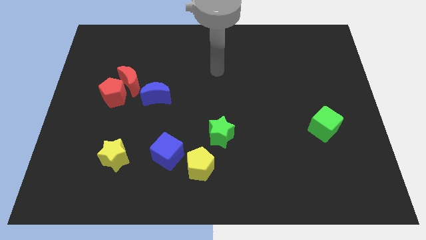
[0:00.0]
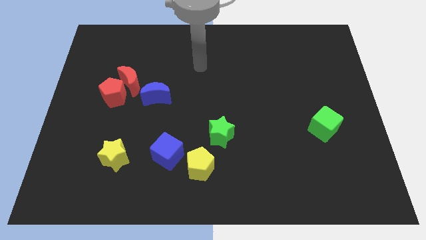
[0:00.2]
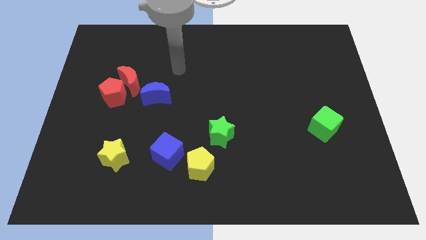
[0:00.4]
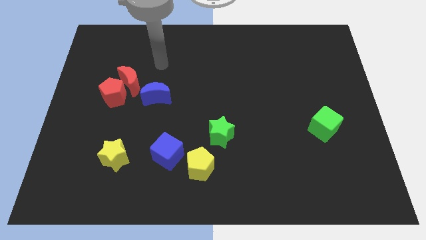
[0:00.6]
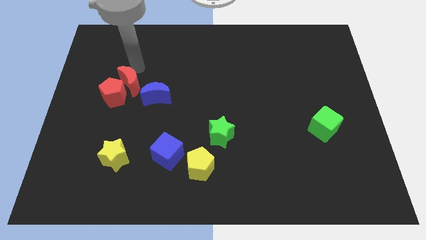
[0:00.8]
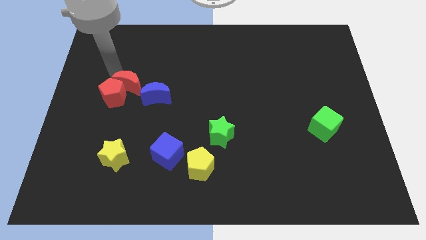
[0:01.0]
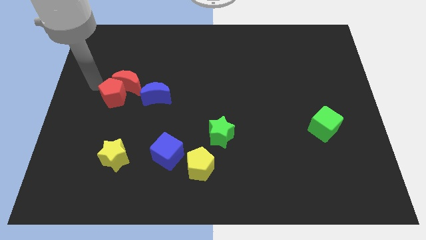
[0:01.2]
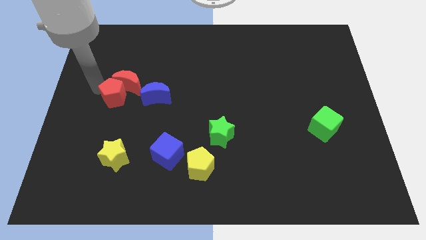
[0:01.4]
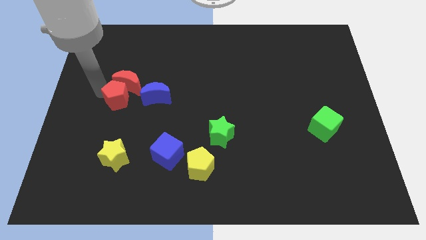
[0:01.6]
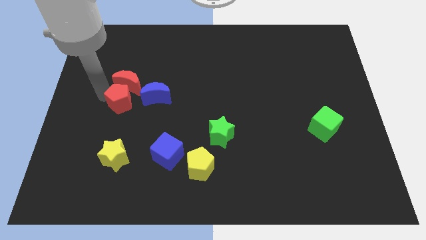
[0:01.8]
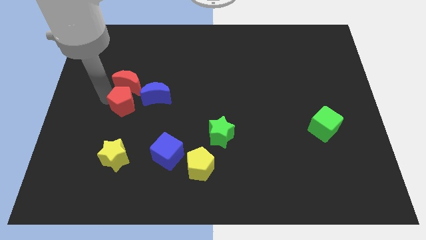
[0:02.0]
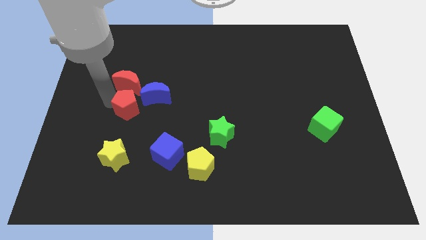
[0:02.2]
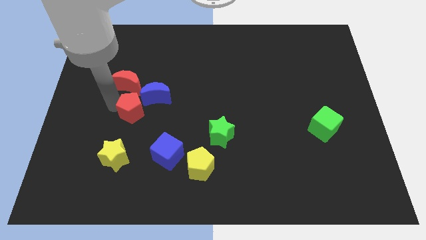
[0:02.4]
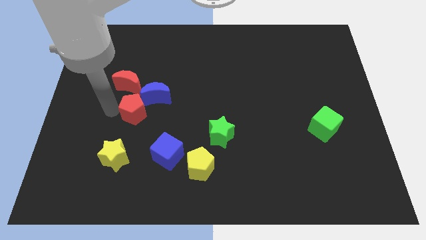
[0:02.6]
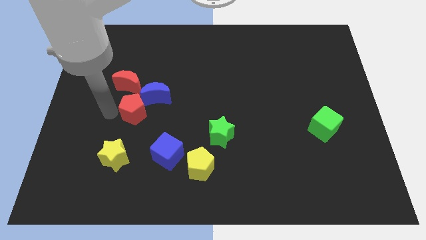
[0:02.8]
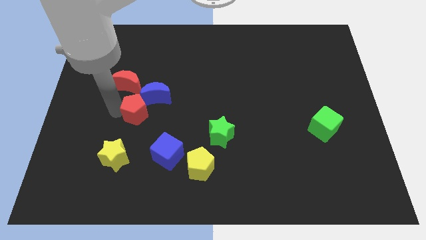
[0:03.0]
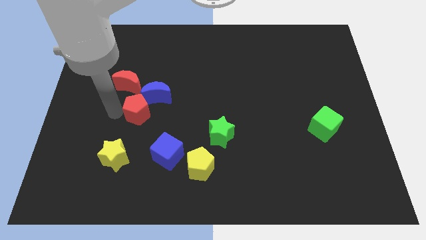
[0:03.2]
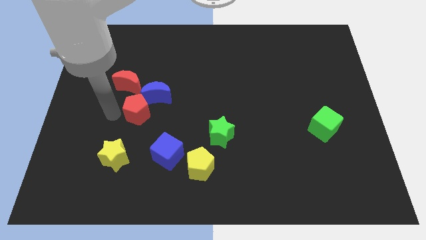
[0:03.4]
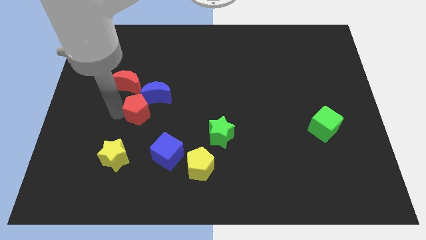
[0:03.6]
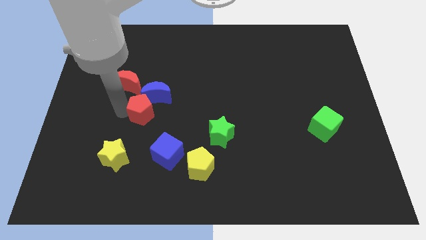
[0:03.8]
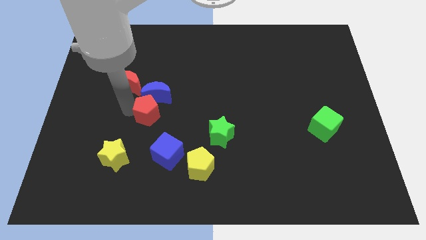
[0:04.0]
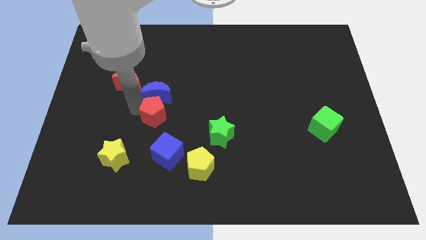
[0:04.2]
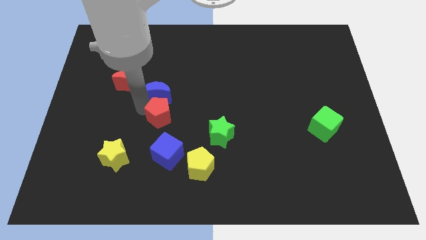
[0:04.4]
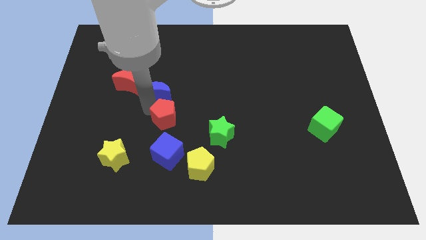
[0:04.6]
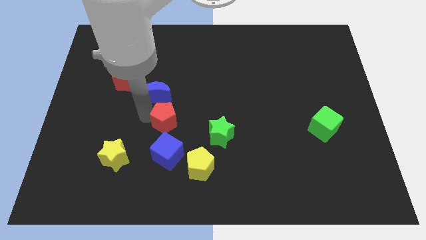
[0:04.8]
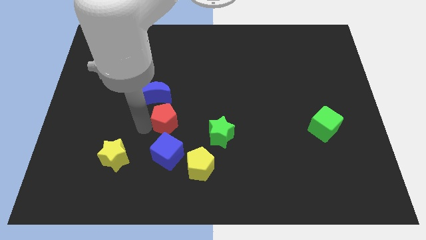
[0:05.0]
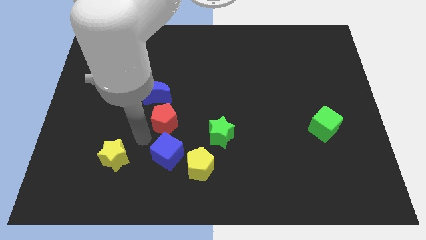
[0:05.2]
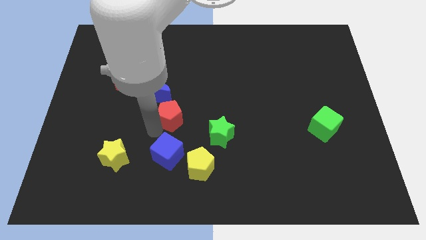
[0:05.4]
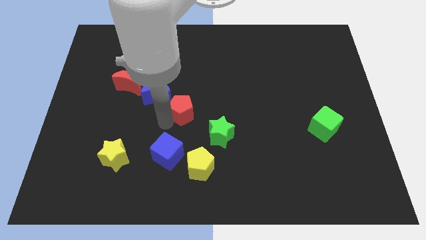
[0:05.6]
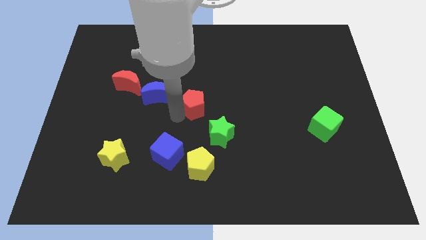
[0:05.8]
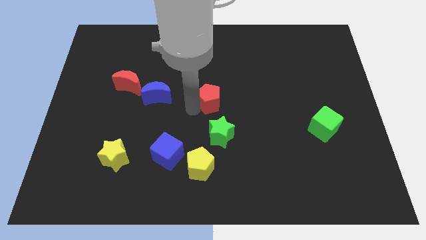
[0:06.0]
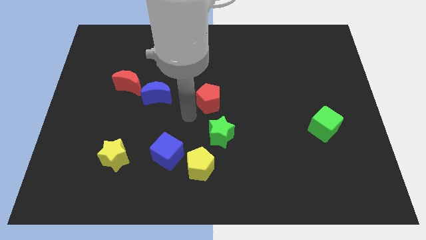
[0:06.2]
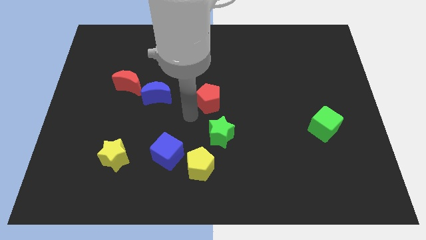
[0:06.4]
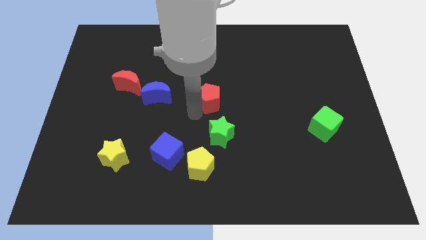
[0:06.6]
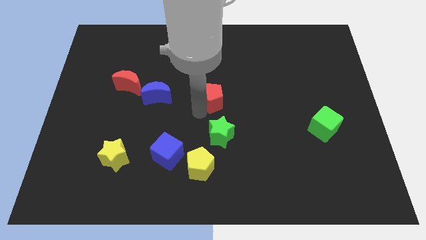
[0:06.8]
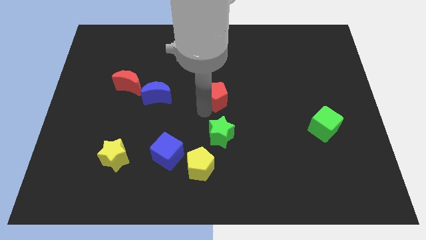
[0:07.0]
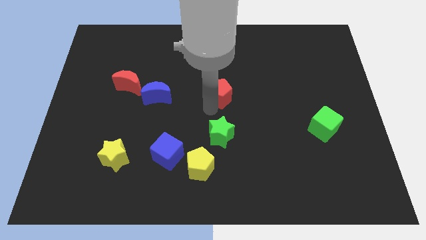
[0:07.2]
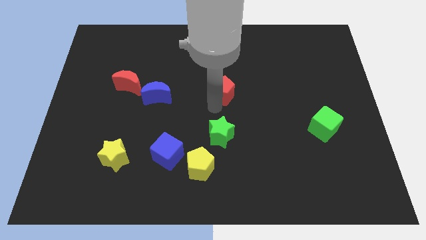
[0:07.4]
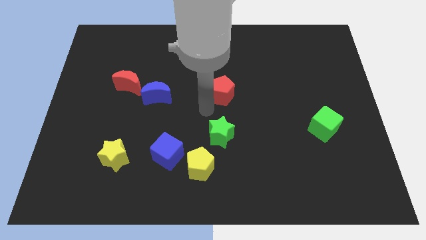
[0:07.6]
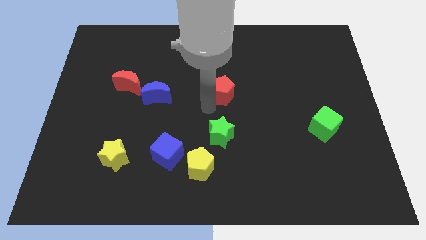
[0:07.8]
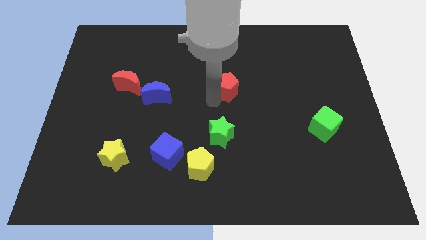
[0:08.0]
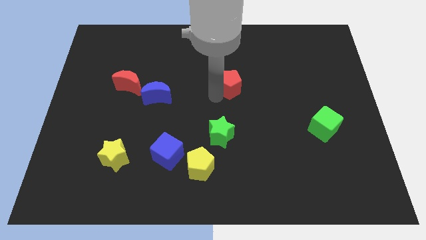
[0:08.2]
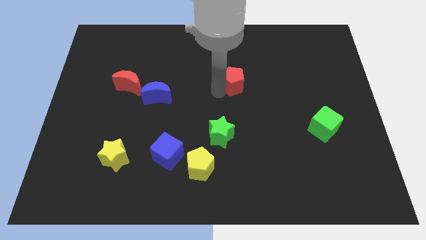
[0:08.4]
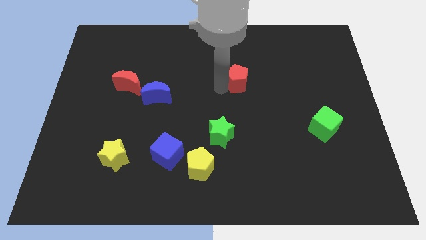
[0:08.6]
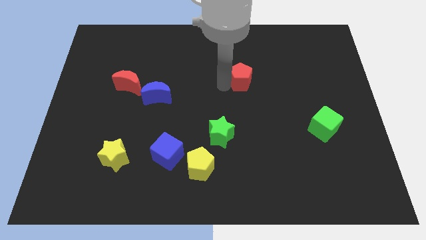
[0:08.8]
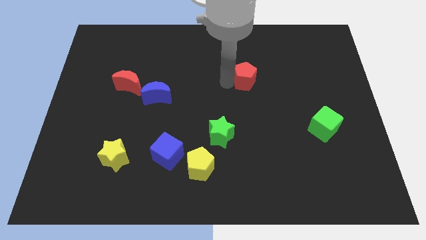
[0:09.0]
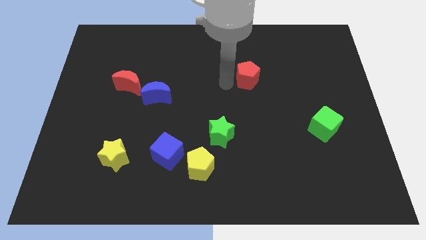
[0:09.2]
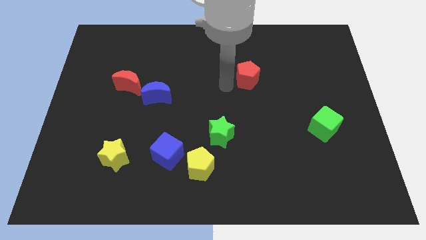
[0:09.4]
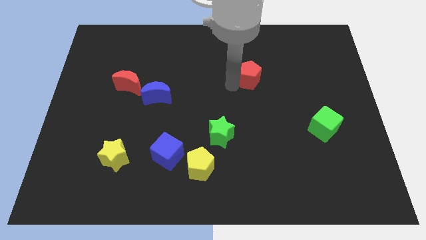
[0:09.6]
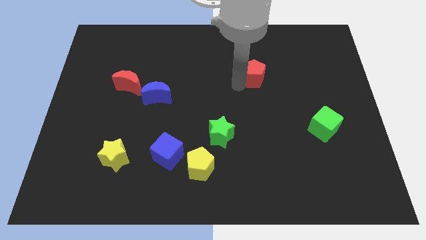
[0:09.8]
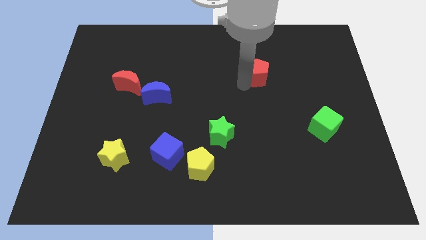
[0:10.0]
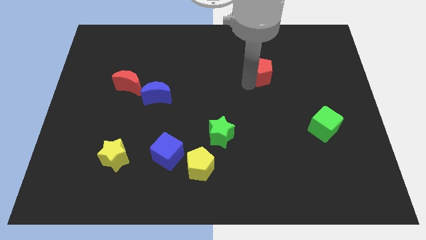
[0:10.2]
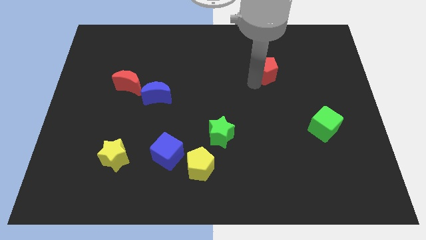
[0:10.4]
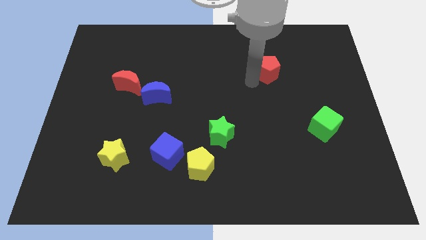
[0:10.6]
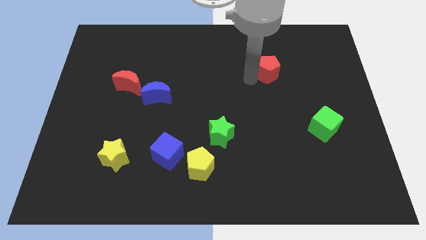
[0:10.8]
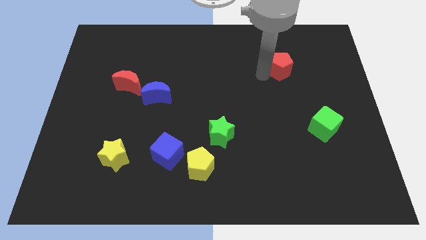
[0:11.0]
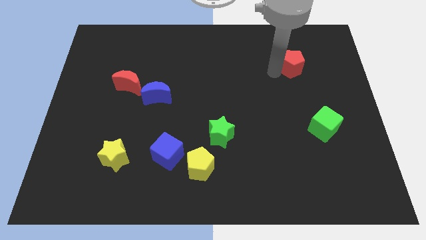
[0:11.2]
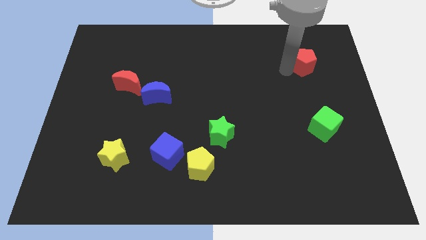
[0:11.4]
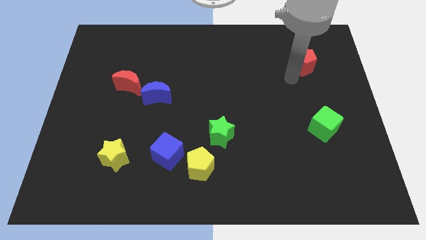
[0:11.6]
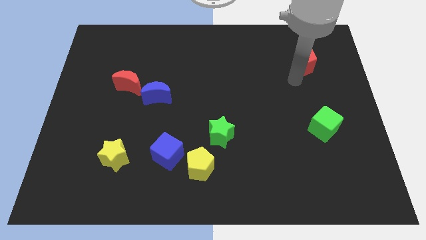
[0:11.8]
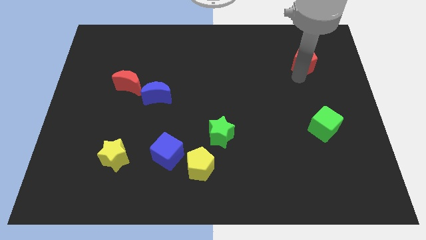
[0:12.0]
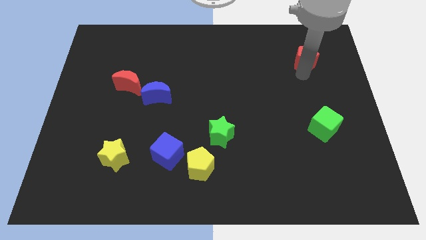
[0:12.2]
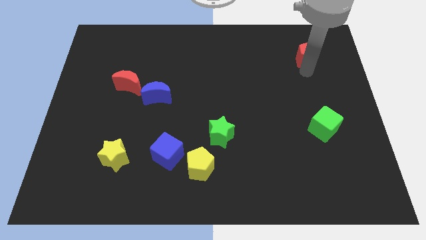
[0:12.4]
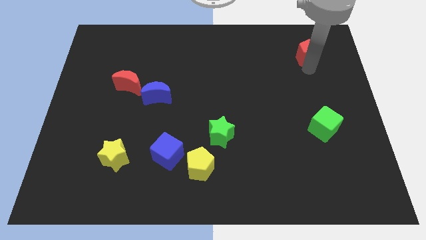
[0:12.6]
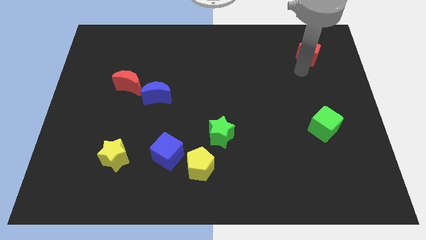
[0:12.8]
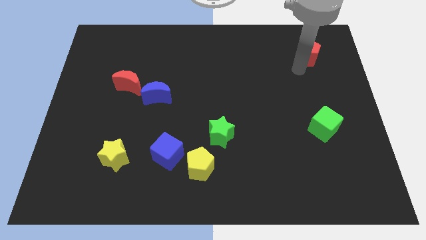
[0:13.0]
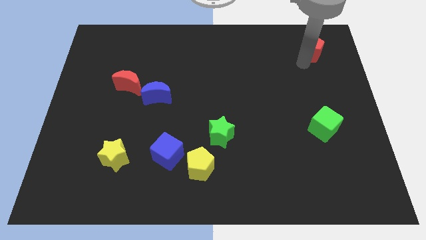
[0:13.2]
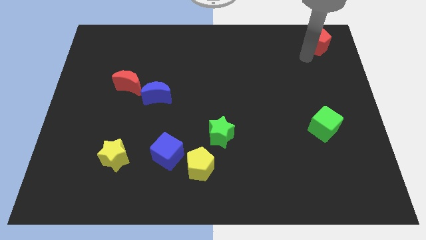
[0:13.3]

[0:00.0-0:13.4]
put the red pentagon to the upper right corner
